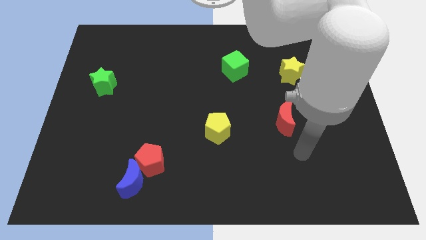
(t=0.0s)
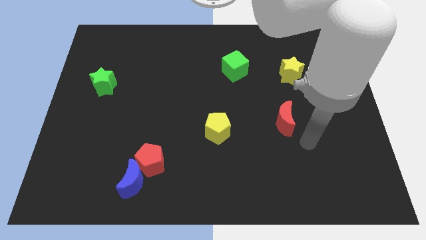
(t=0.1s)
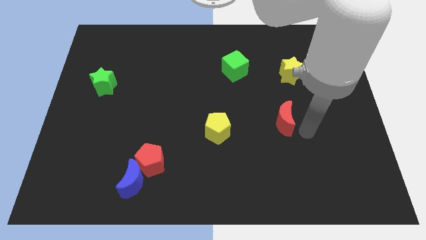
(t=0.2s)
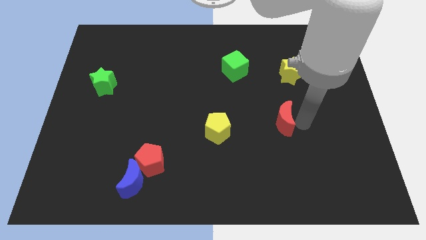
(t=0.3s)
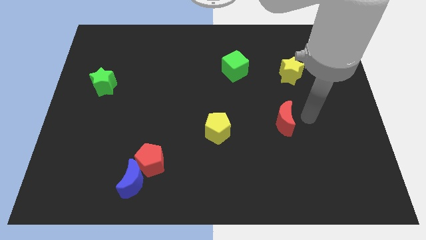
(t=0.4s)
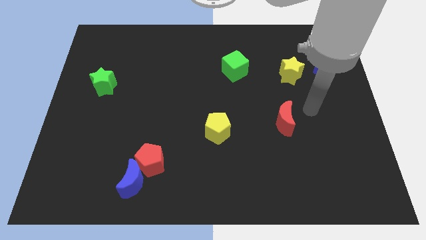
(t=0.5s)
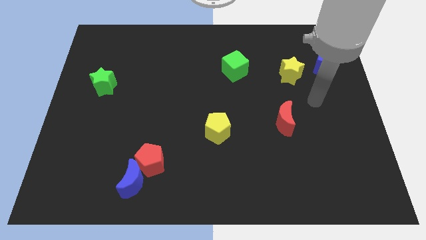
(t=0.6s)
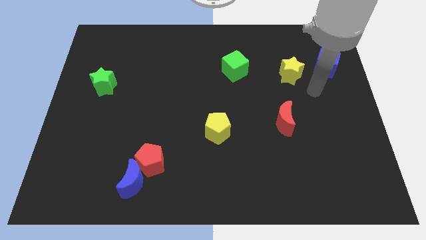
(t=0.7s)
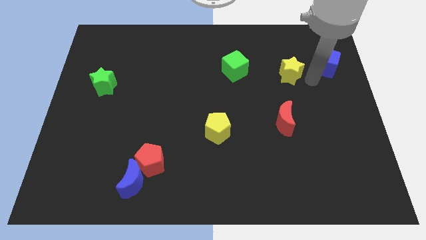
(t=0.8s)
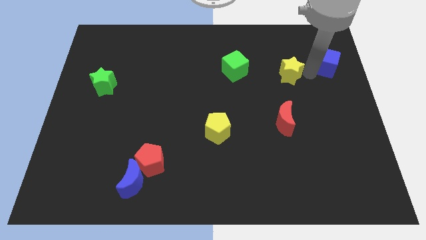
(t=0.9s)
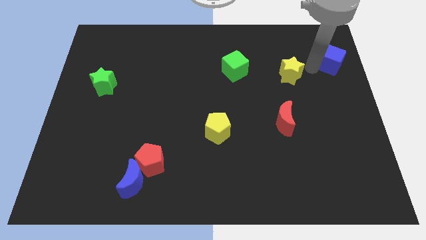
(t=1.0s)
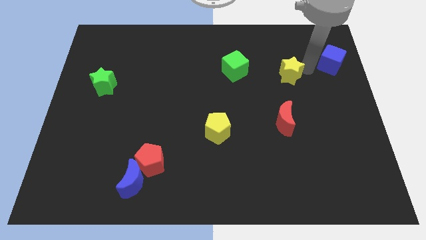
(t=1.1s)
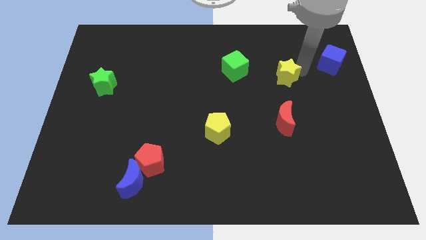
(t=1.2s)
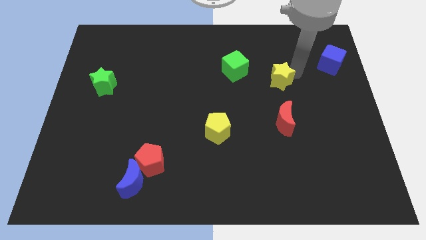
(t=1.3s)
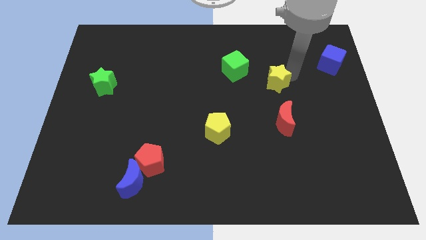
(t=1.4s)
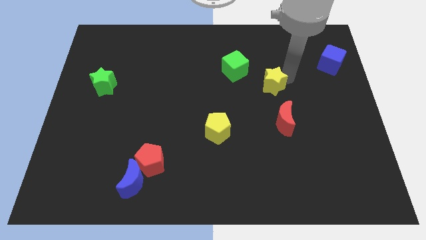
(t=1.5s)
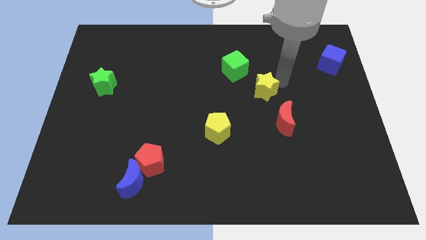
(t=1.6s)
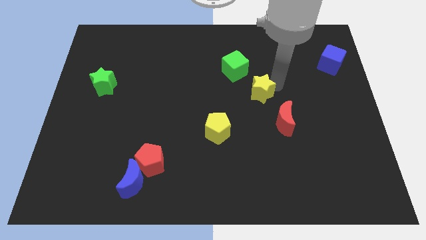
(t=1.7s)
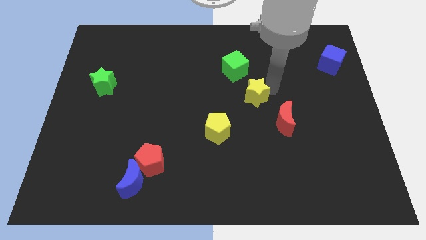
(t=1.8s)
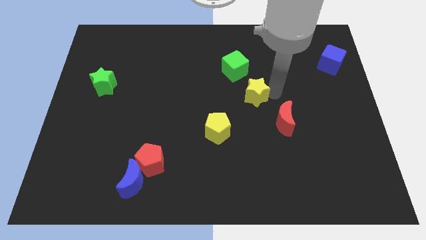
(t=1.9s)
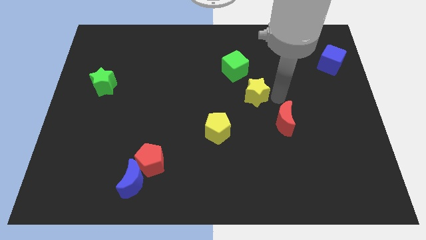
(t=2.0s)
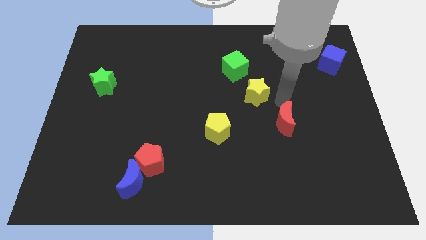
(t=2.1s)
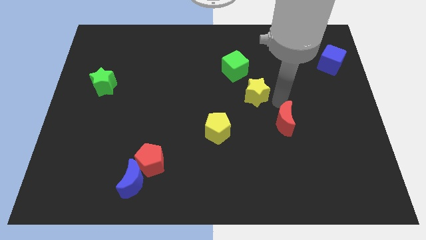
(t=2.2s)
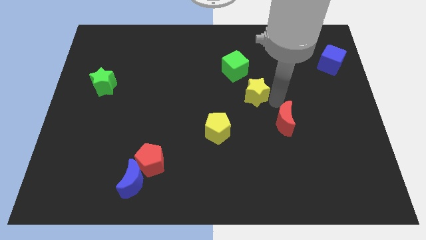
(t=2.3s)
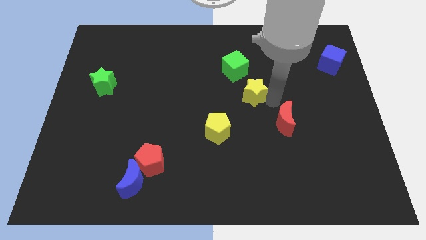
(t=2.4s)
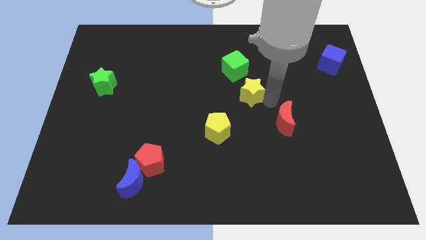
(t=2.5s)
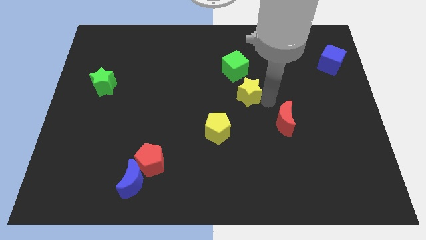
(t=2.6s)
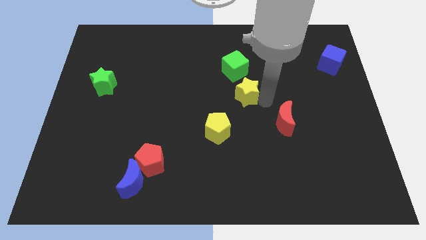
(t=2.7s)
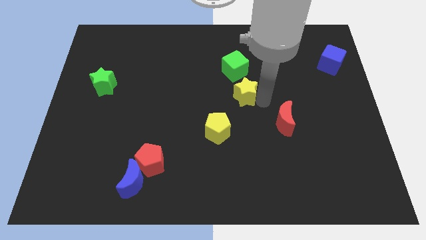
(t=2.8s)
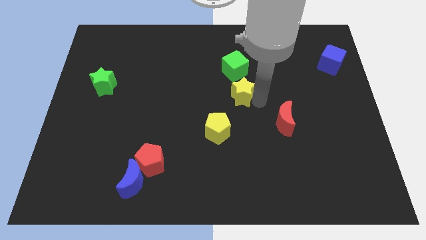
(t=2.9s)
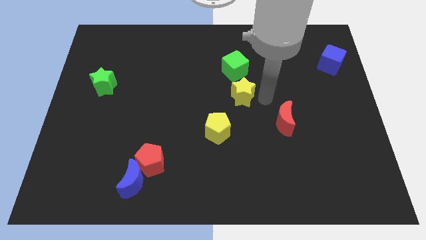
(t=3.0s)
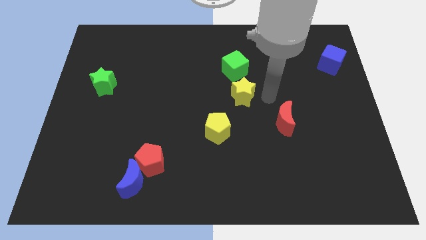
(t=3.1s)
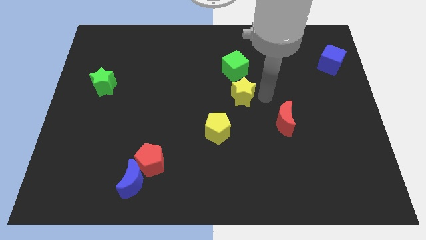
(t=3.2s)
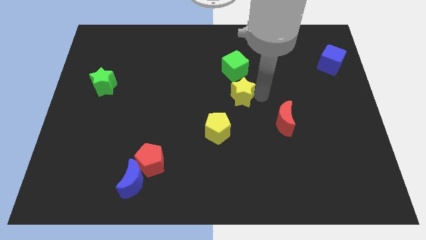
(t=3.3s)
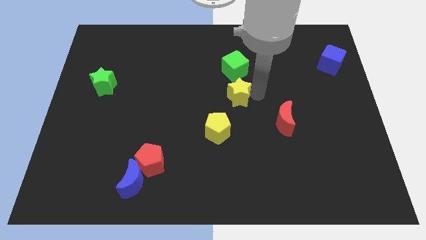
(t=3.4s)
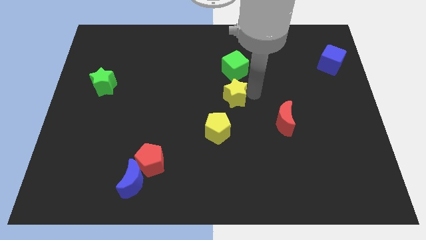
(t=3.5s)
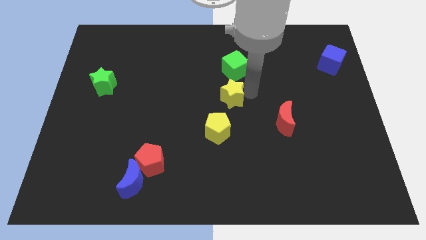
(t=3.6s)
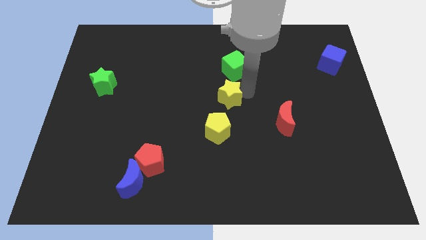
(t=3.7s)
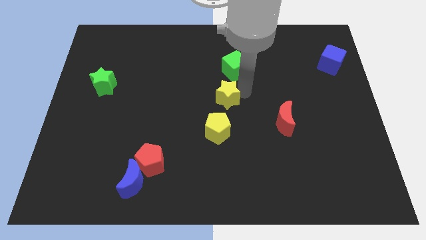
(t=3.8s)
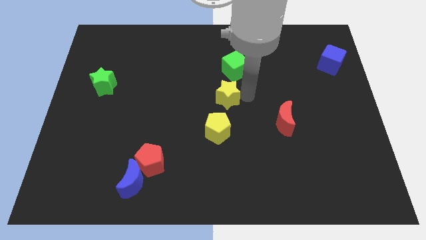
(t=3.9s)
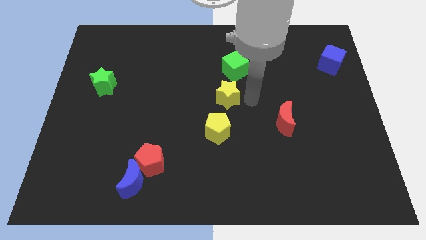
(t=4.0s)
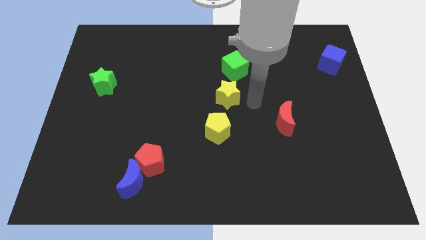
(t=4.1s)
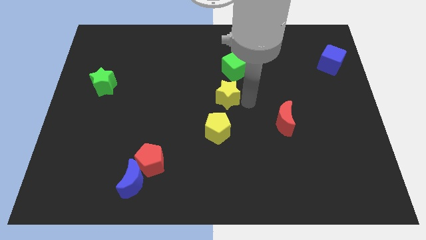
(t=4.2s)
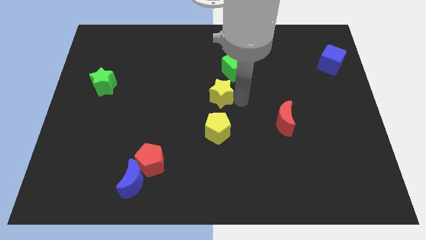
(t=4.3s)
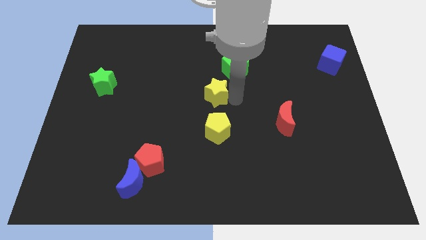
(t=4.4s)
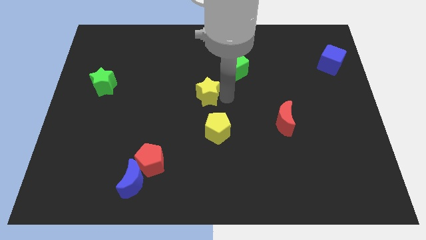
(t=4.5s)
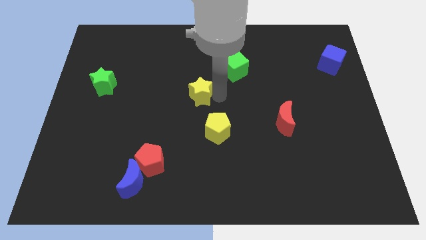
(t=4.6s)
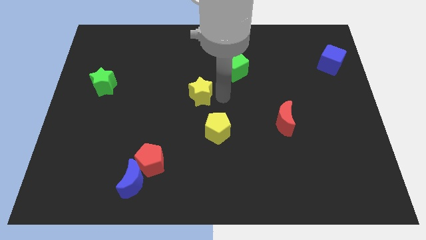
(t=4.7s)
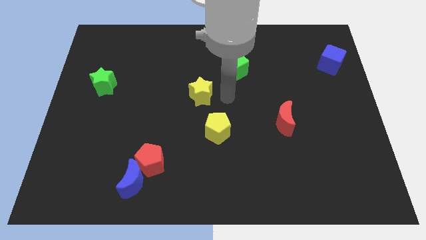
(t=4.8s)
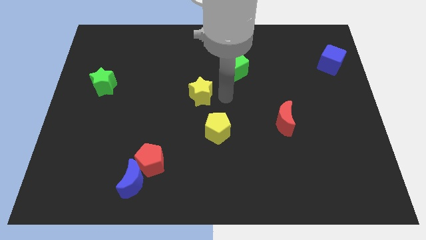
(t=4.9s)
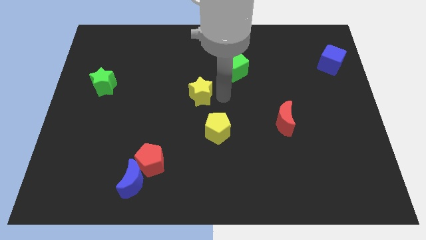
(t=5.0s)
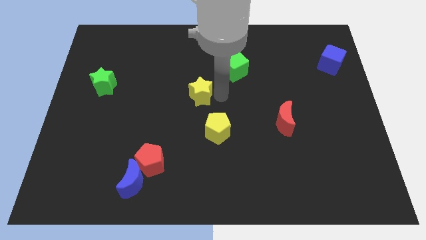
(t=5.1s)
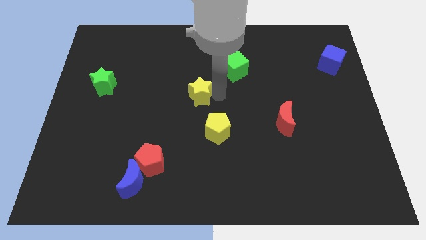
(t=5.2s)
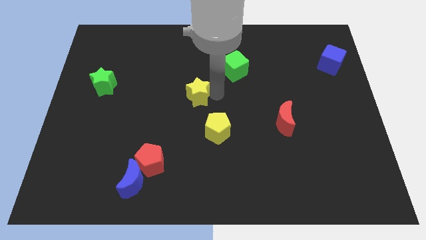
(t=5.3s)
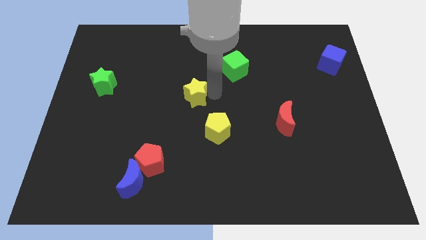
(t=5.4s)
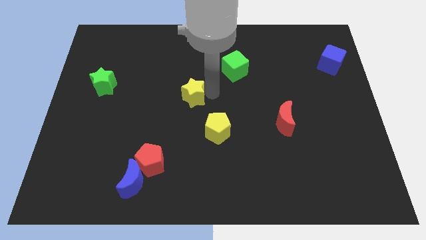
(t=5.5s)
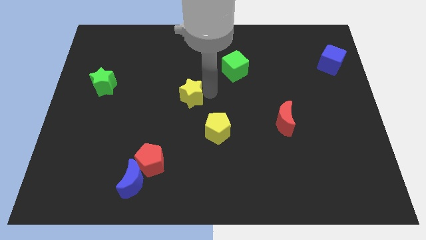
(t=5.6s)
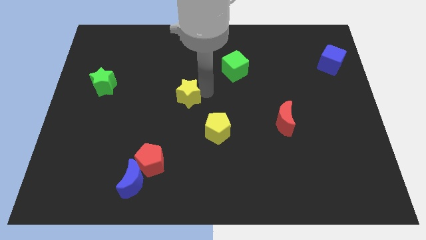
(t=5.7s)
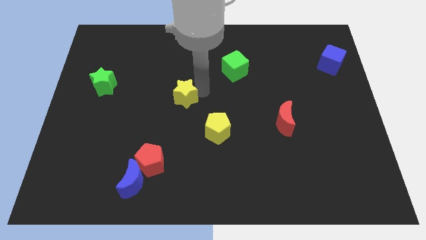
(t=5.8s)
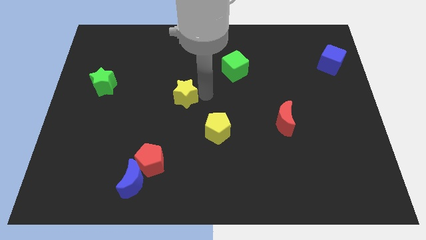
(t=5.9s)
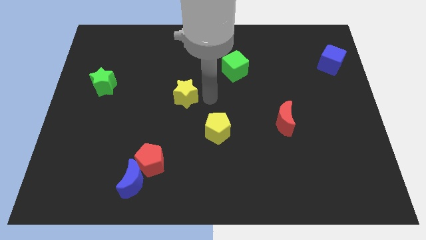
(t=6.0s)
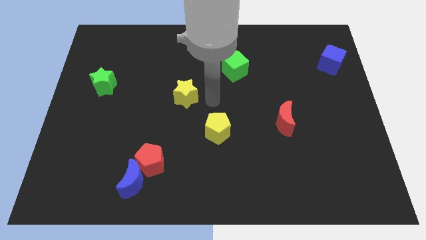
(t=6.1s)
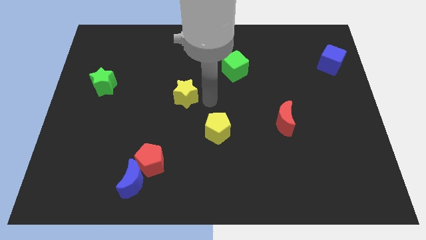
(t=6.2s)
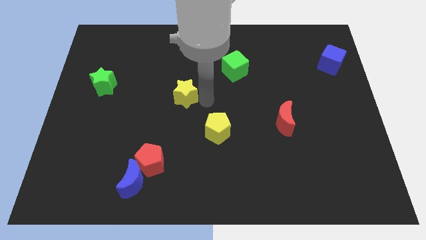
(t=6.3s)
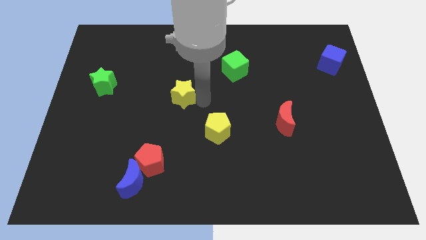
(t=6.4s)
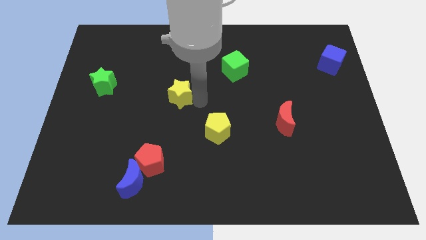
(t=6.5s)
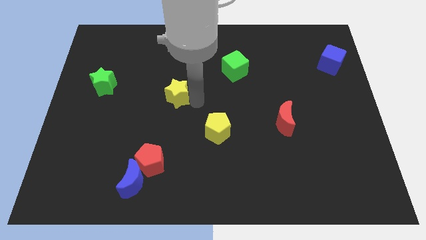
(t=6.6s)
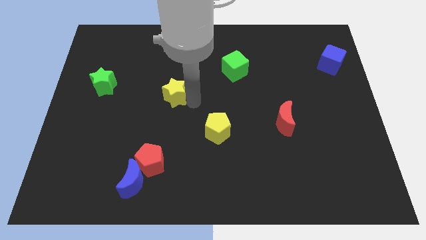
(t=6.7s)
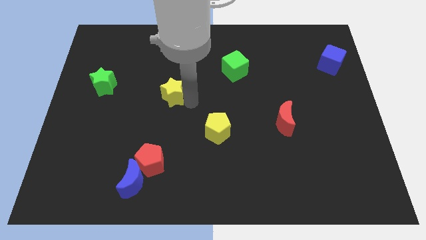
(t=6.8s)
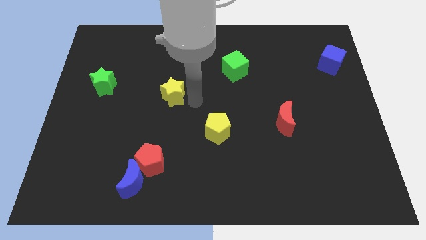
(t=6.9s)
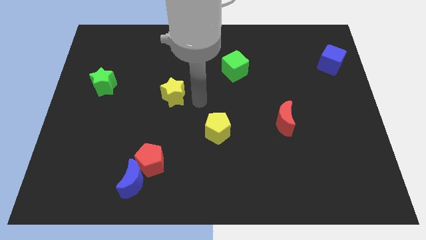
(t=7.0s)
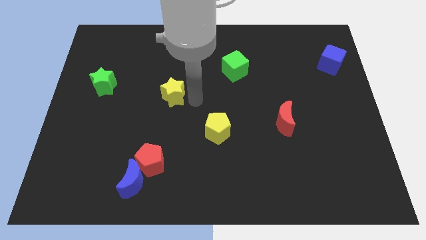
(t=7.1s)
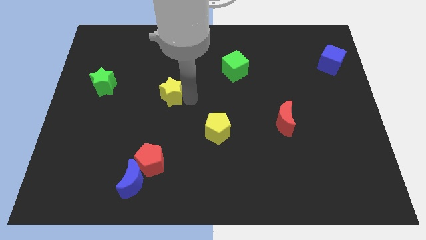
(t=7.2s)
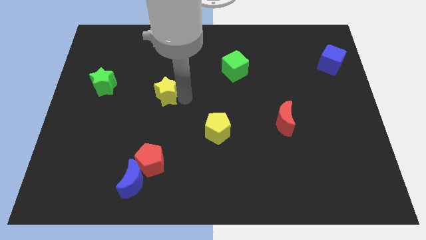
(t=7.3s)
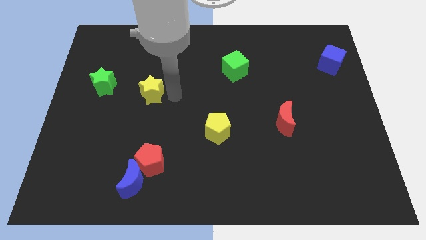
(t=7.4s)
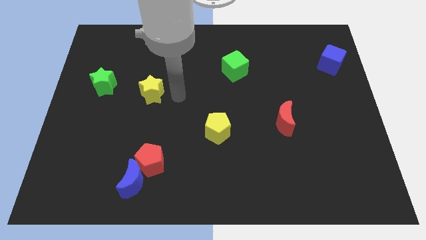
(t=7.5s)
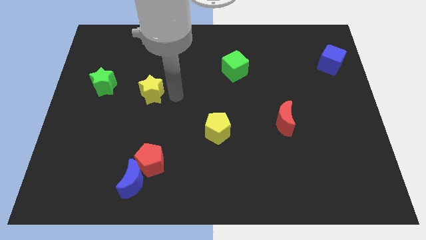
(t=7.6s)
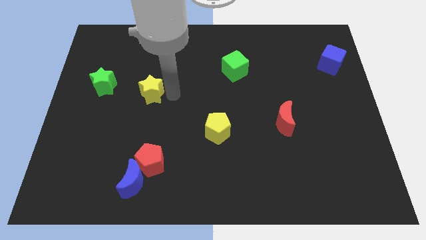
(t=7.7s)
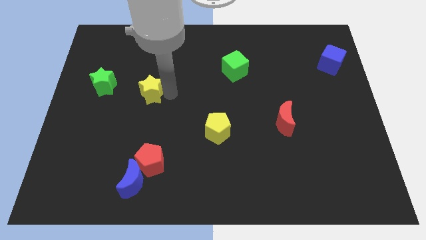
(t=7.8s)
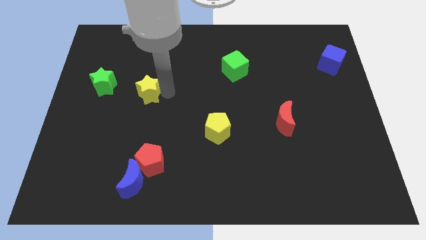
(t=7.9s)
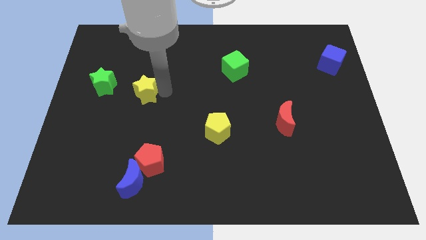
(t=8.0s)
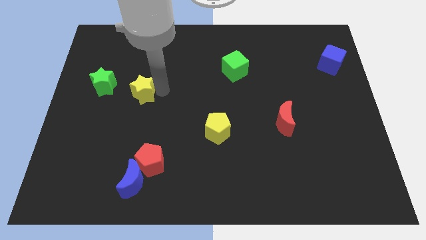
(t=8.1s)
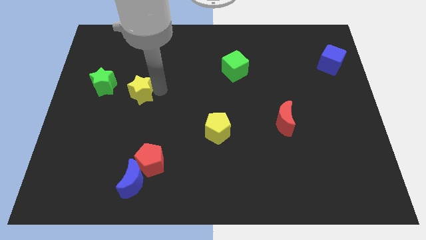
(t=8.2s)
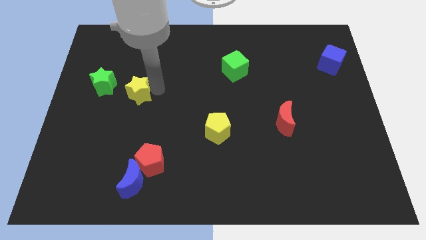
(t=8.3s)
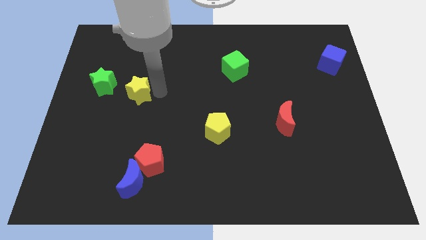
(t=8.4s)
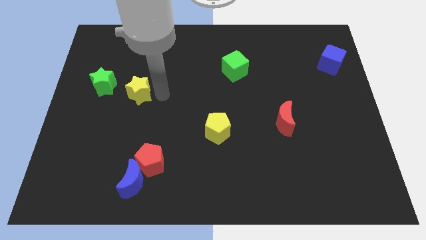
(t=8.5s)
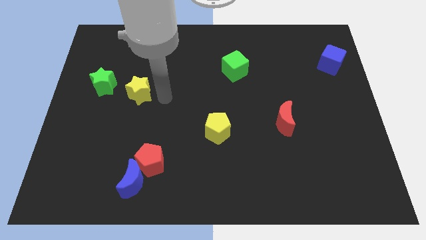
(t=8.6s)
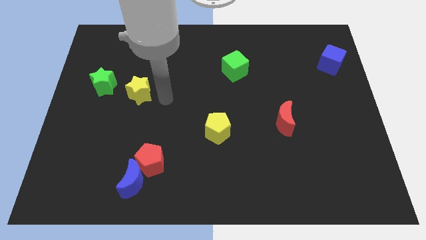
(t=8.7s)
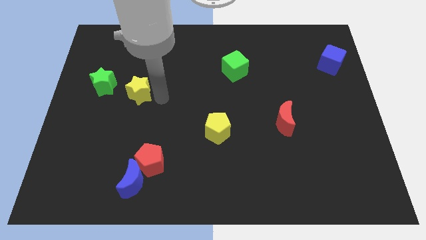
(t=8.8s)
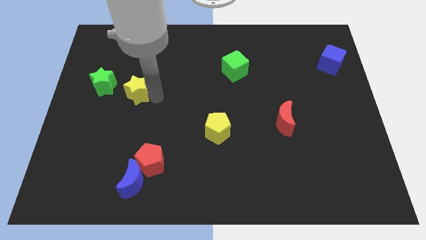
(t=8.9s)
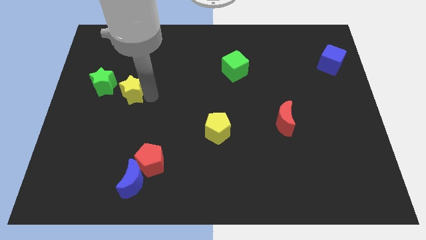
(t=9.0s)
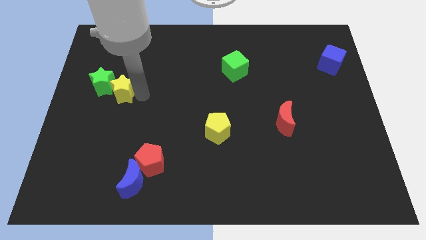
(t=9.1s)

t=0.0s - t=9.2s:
slide the yellow star towards the green star
